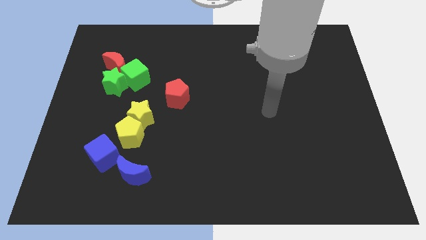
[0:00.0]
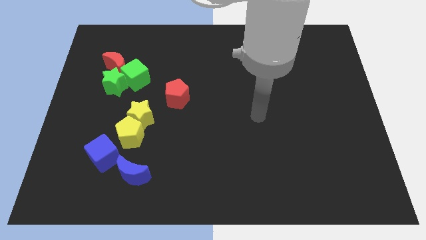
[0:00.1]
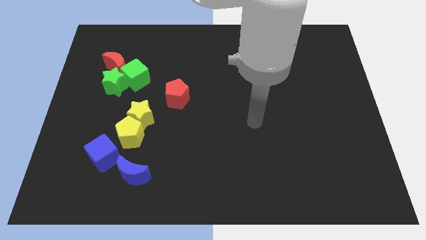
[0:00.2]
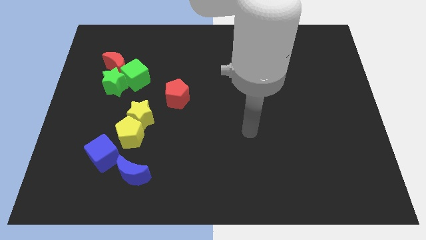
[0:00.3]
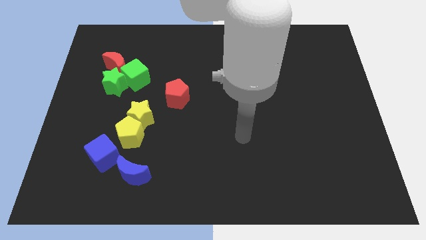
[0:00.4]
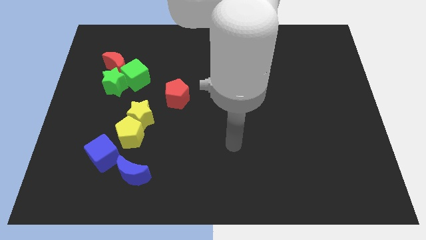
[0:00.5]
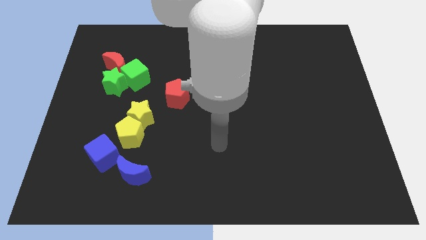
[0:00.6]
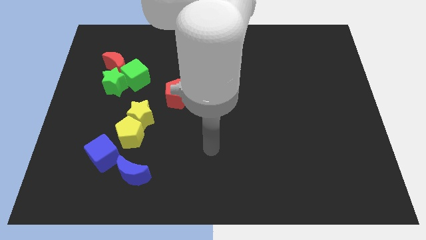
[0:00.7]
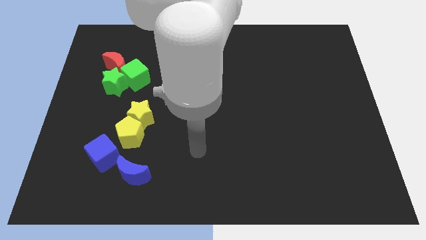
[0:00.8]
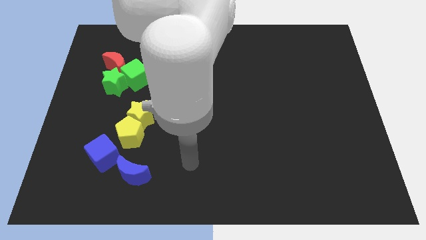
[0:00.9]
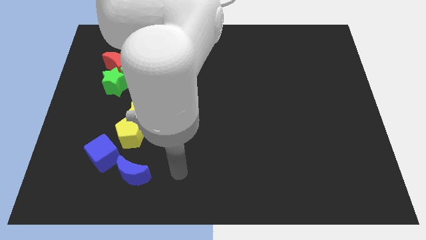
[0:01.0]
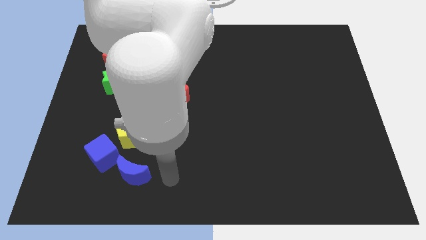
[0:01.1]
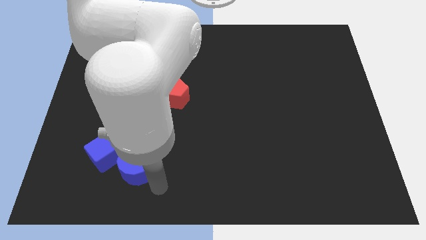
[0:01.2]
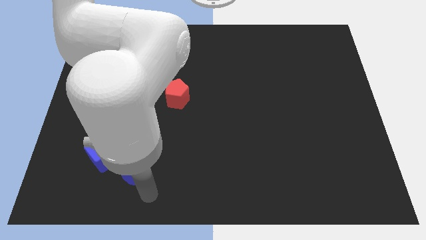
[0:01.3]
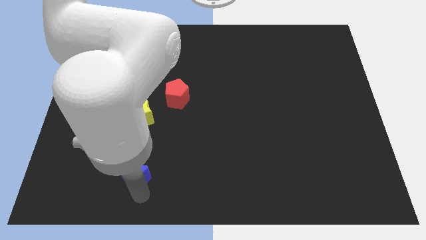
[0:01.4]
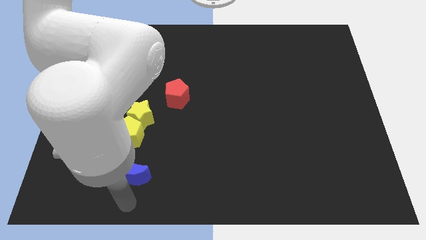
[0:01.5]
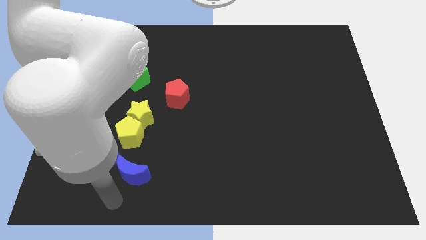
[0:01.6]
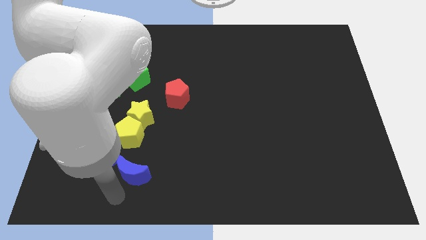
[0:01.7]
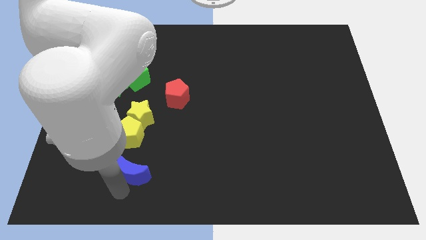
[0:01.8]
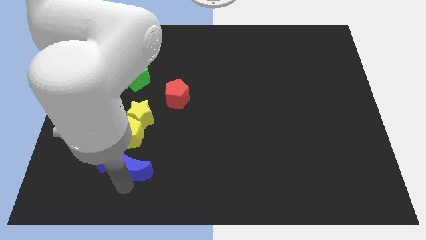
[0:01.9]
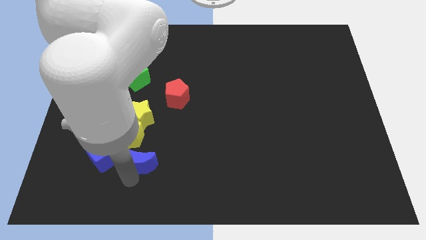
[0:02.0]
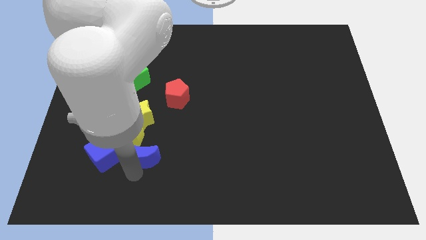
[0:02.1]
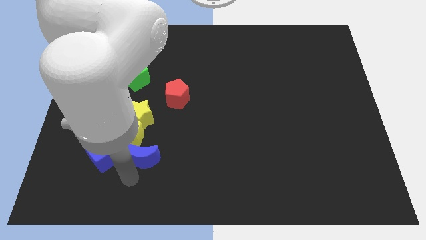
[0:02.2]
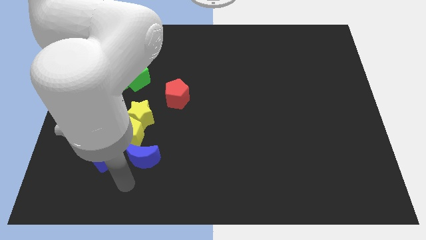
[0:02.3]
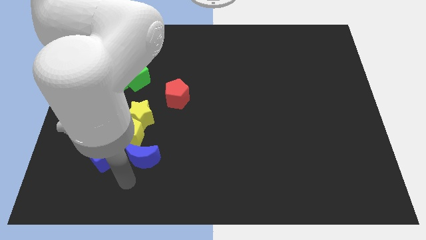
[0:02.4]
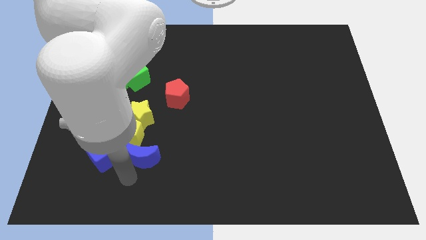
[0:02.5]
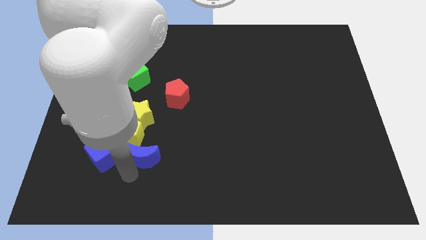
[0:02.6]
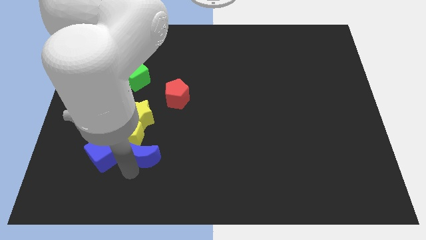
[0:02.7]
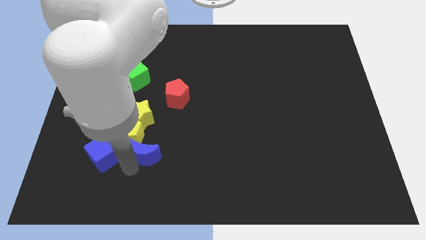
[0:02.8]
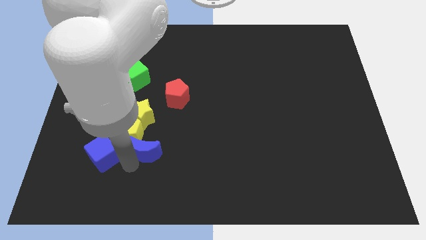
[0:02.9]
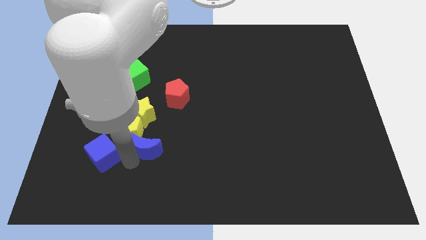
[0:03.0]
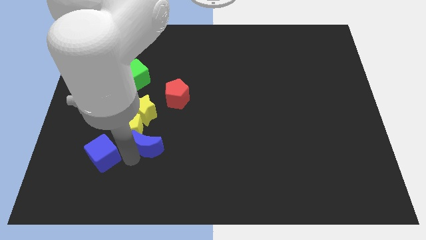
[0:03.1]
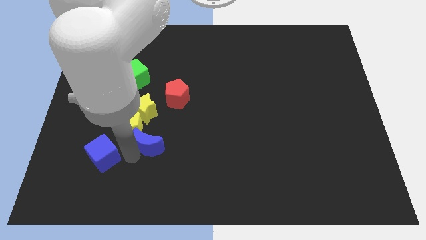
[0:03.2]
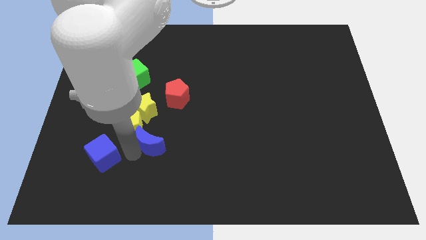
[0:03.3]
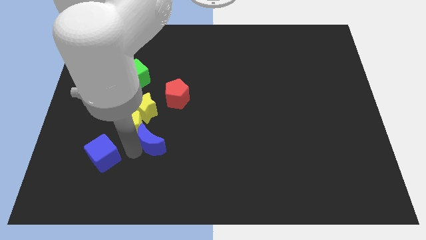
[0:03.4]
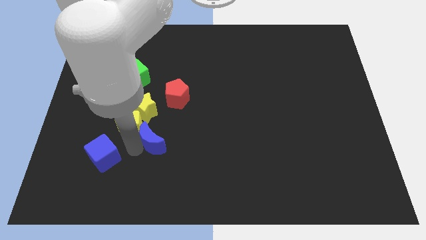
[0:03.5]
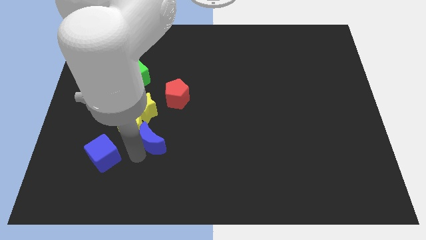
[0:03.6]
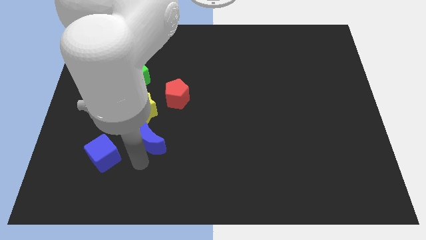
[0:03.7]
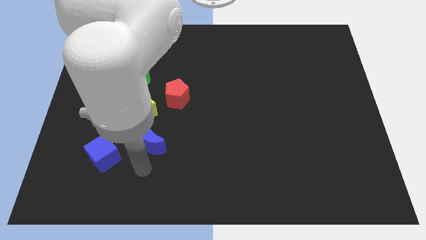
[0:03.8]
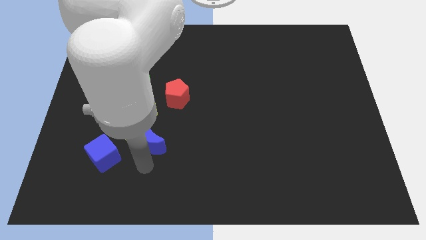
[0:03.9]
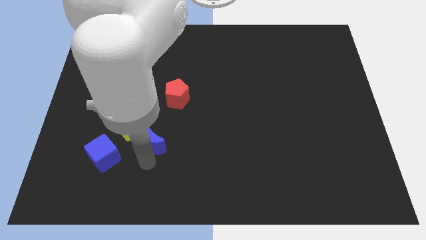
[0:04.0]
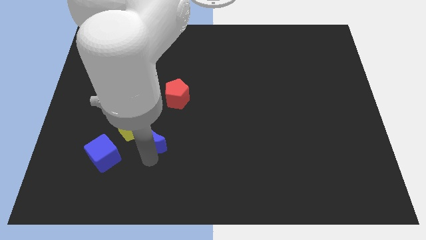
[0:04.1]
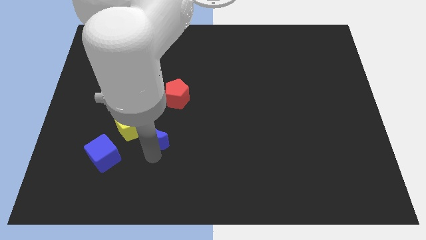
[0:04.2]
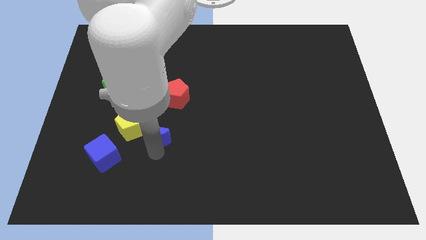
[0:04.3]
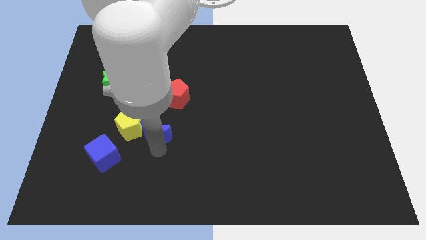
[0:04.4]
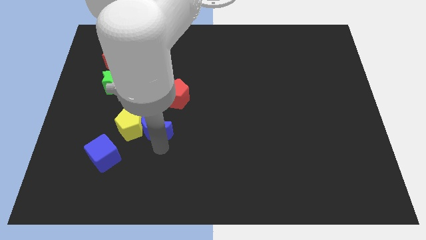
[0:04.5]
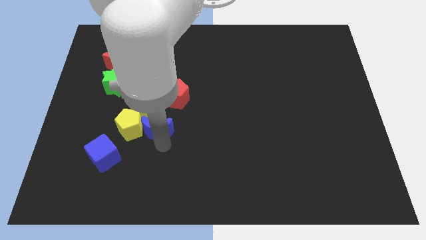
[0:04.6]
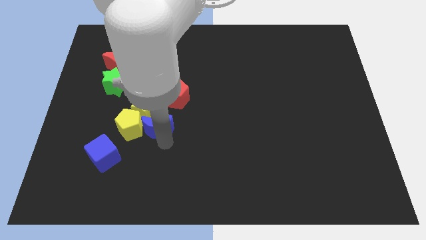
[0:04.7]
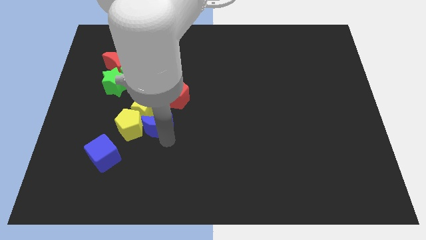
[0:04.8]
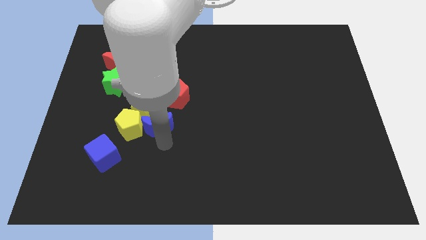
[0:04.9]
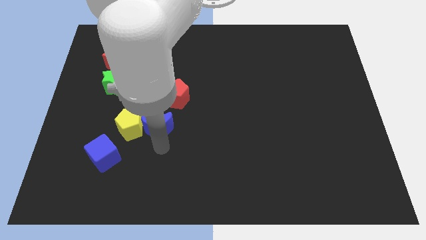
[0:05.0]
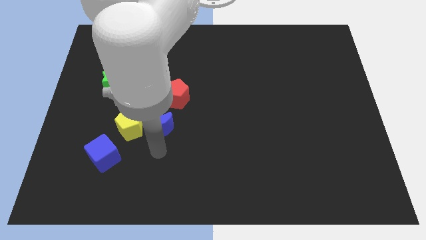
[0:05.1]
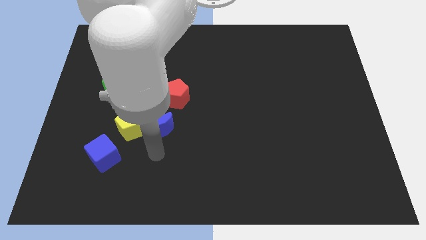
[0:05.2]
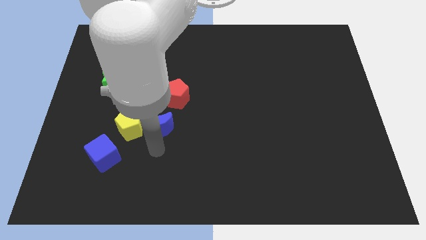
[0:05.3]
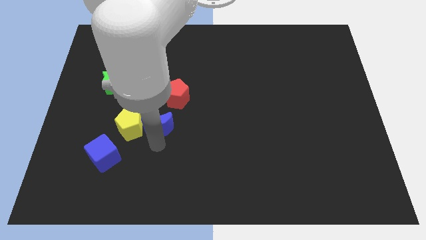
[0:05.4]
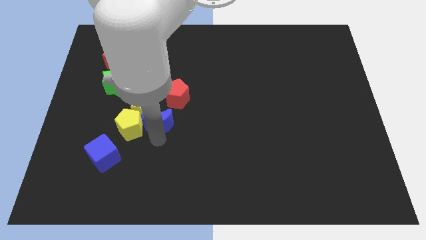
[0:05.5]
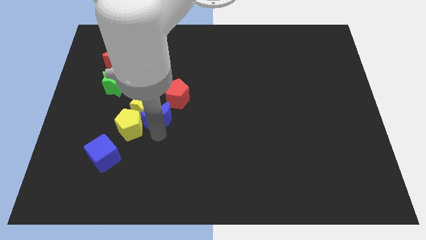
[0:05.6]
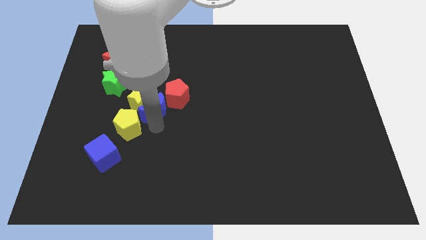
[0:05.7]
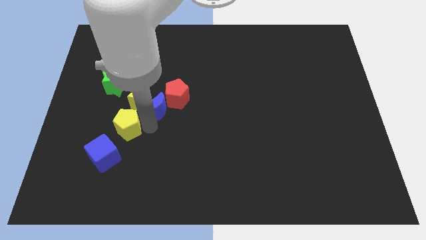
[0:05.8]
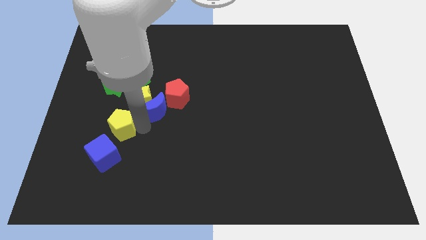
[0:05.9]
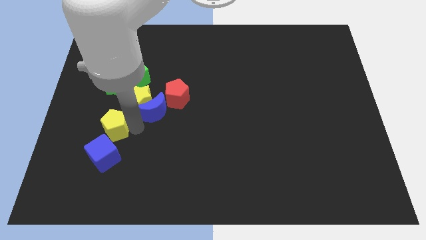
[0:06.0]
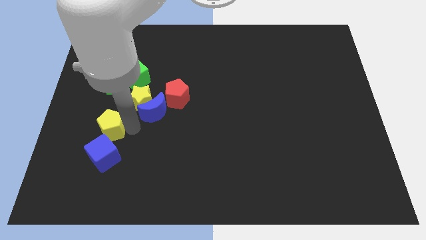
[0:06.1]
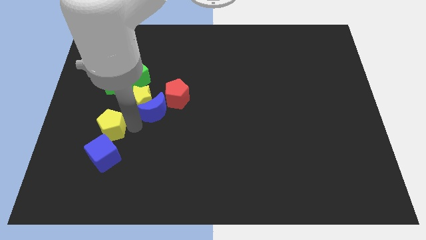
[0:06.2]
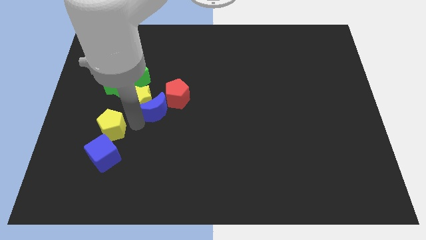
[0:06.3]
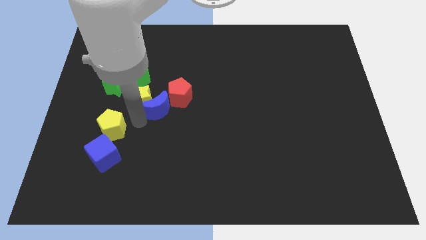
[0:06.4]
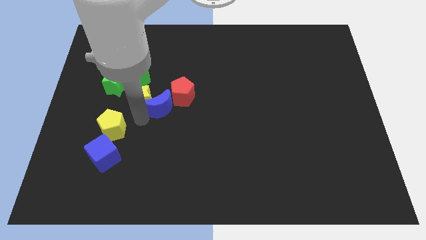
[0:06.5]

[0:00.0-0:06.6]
slide the blue moon close to the red pentagon

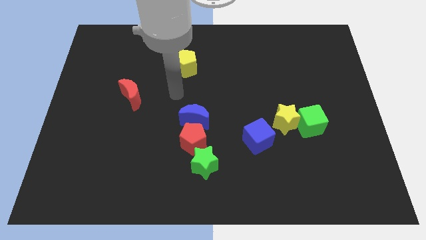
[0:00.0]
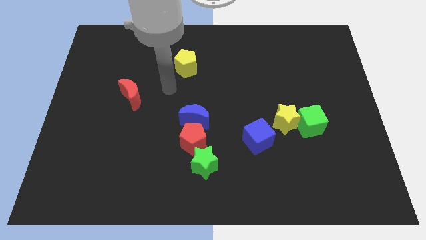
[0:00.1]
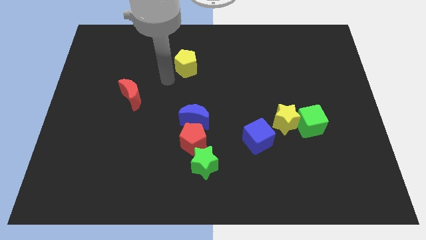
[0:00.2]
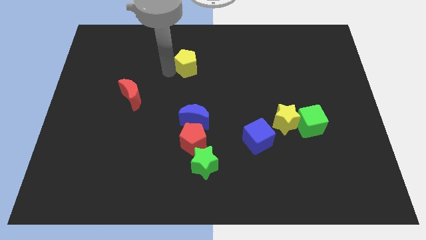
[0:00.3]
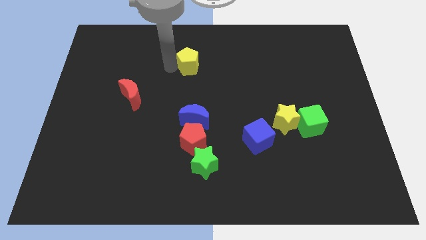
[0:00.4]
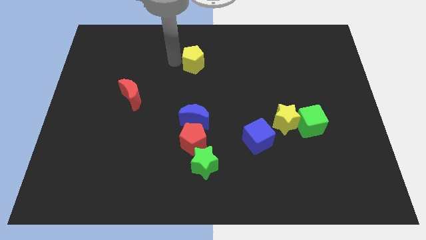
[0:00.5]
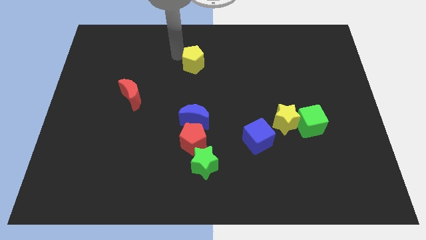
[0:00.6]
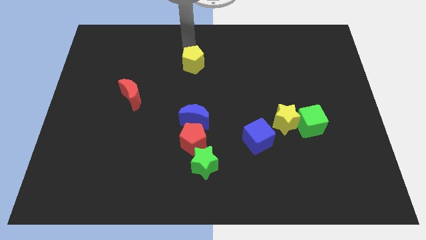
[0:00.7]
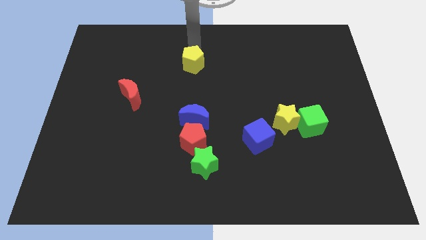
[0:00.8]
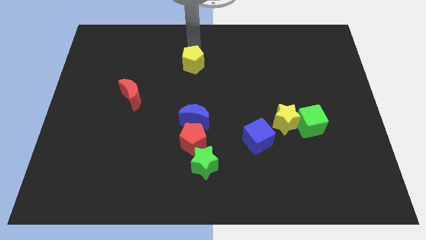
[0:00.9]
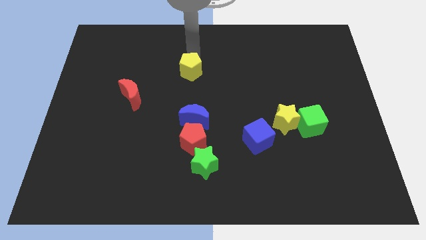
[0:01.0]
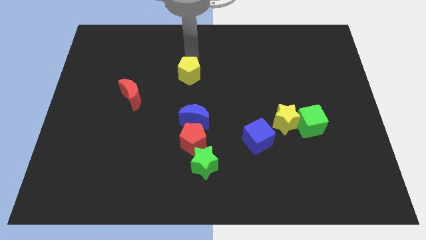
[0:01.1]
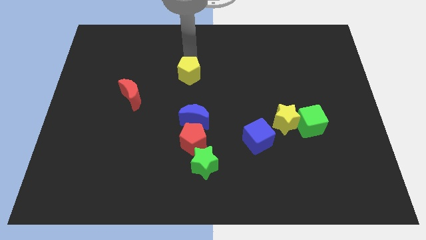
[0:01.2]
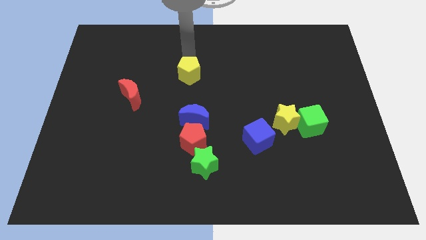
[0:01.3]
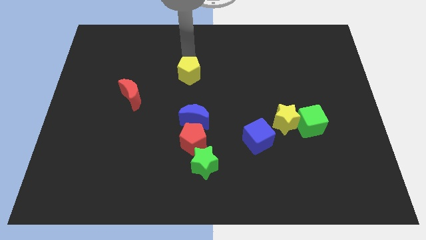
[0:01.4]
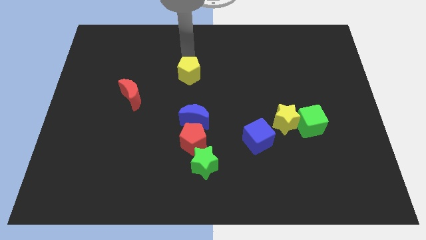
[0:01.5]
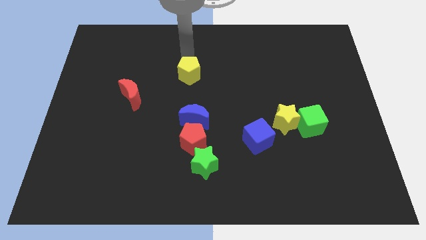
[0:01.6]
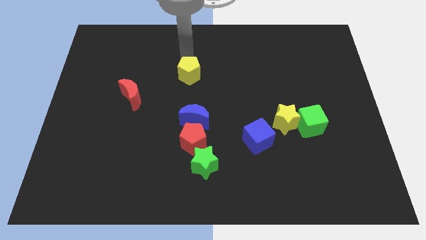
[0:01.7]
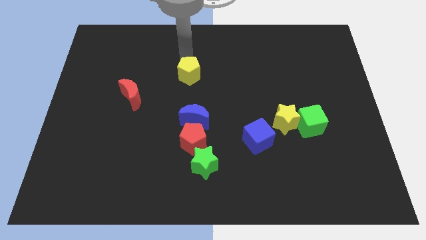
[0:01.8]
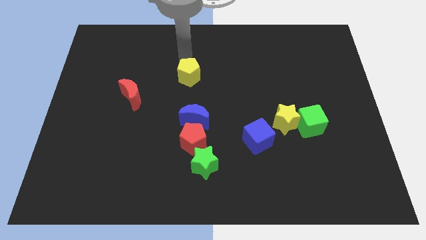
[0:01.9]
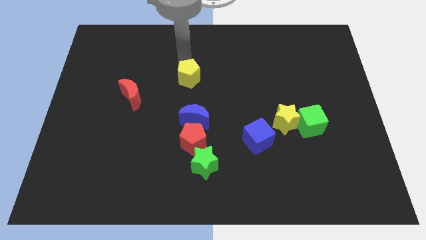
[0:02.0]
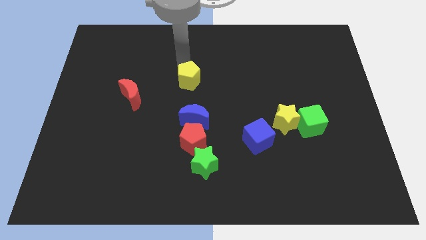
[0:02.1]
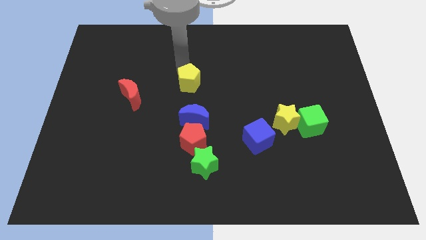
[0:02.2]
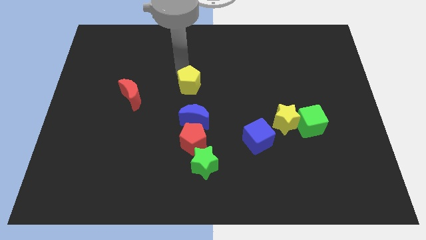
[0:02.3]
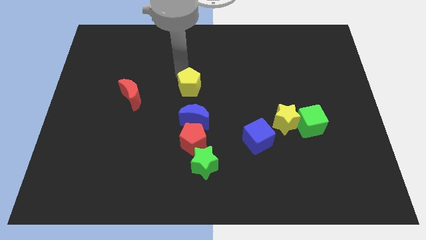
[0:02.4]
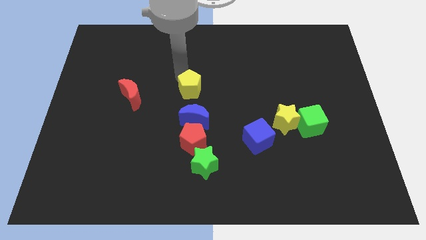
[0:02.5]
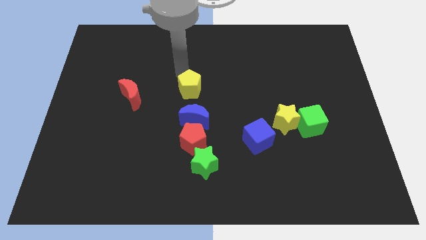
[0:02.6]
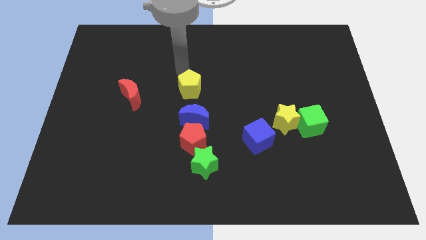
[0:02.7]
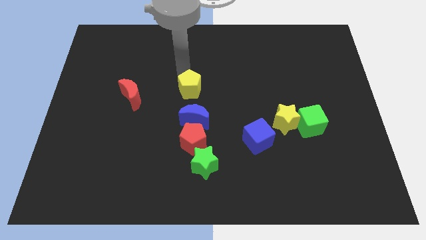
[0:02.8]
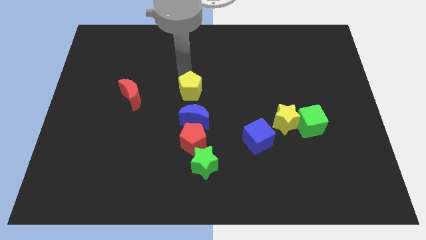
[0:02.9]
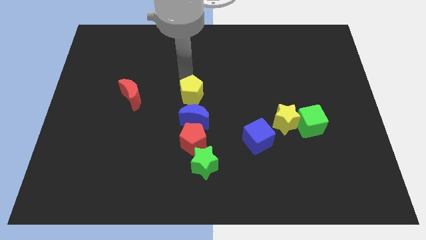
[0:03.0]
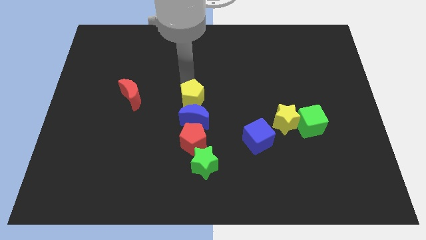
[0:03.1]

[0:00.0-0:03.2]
slide the yellow pentagon towards the blue moon
